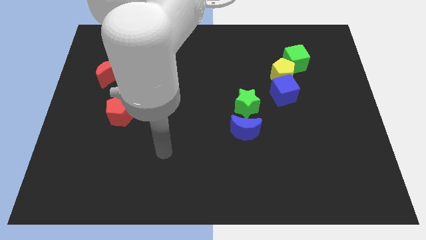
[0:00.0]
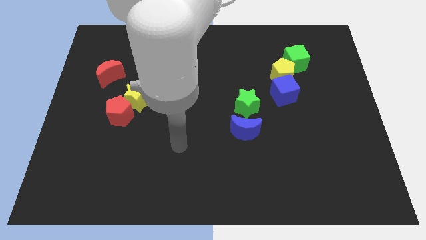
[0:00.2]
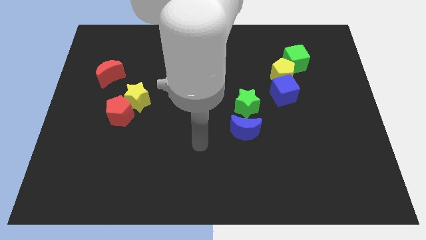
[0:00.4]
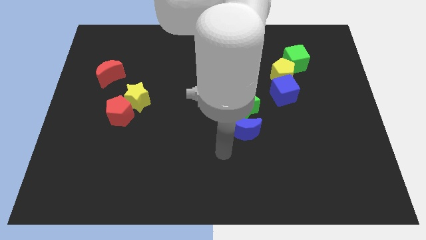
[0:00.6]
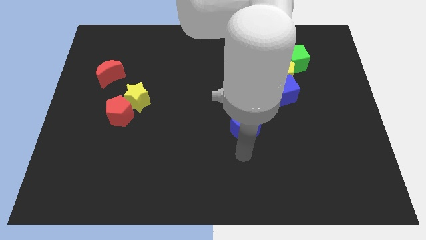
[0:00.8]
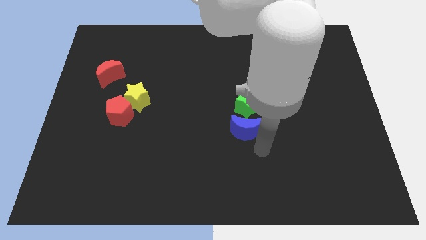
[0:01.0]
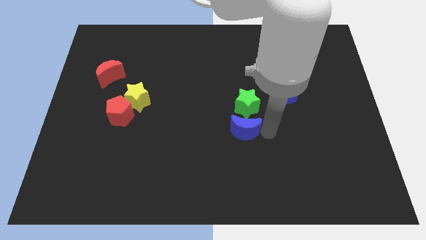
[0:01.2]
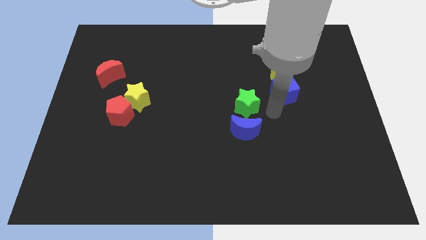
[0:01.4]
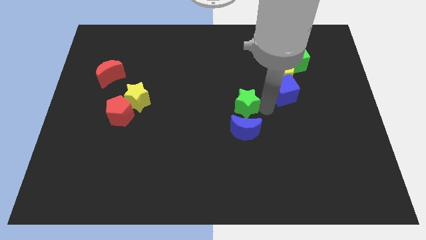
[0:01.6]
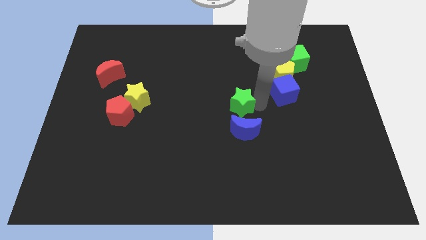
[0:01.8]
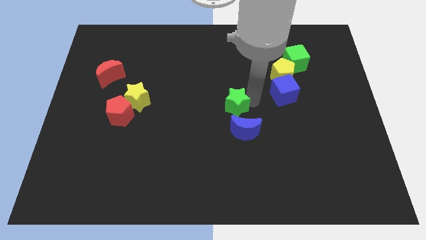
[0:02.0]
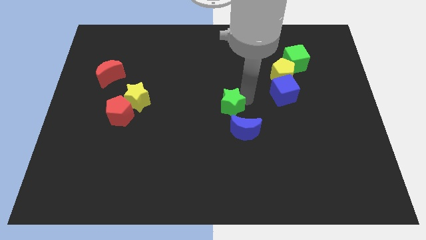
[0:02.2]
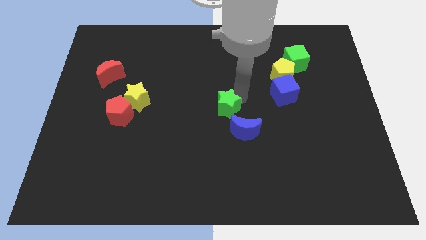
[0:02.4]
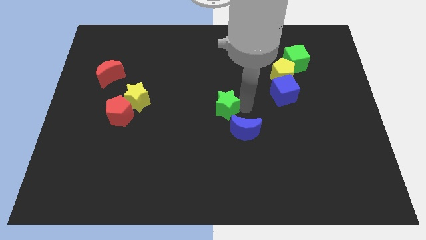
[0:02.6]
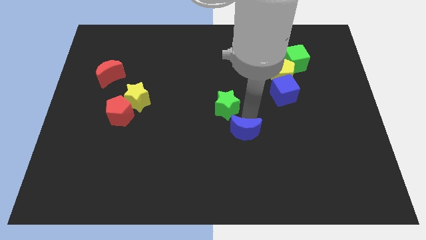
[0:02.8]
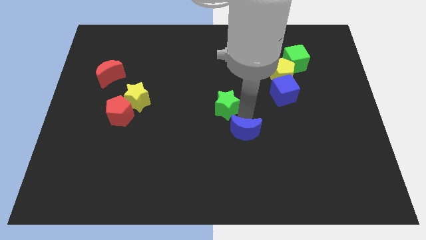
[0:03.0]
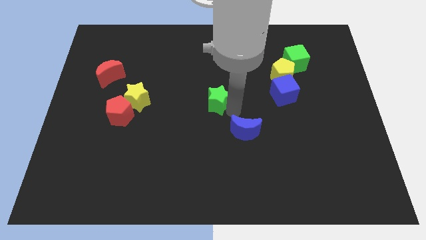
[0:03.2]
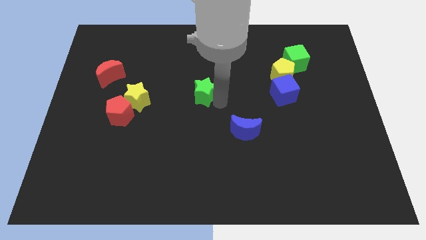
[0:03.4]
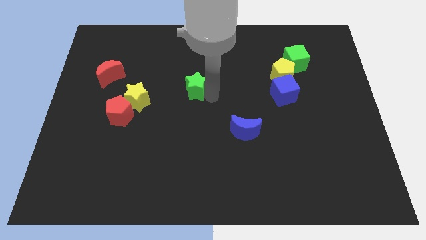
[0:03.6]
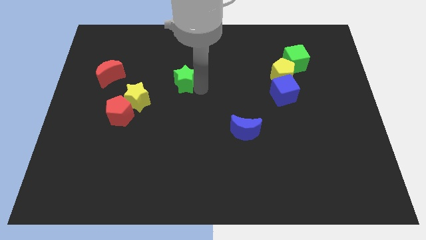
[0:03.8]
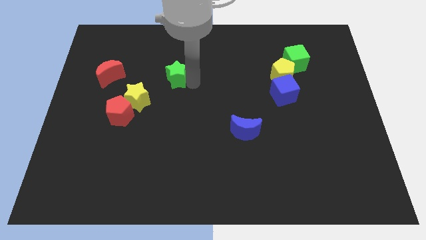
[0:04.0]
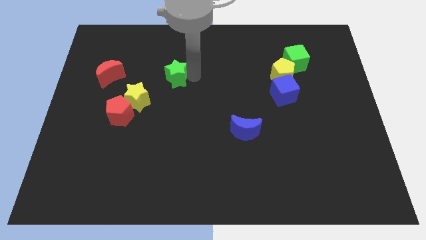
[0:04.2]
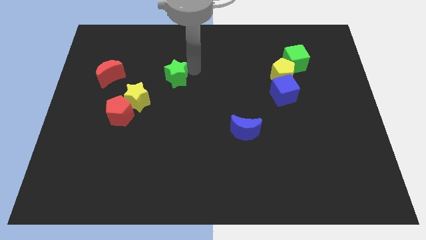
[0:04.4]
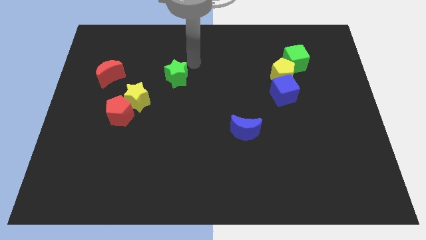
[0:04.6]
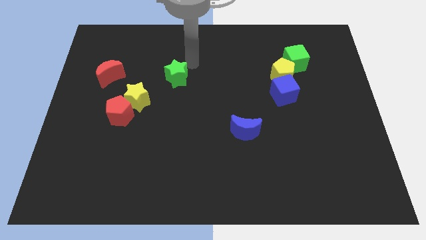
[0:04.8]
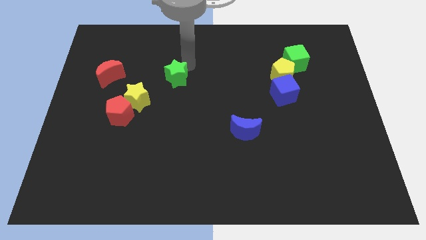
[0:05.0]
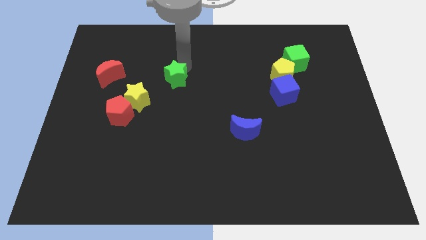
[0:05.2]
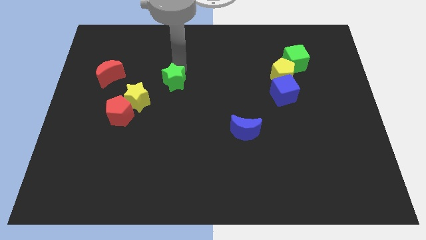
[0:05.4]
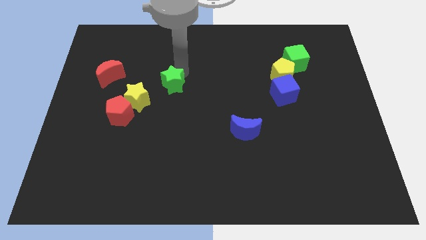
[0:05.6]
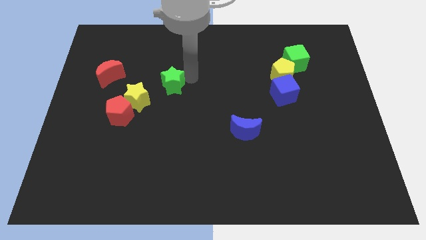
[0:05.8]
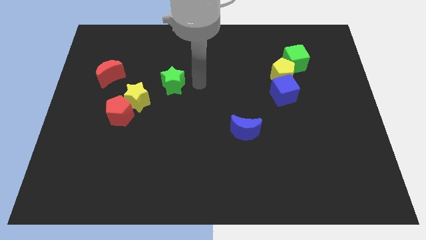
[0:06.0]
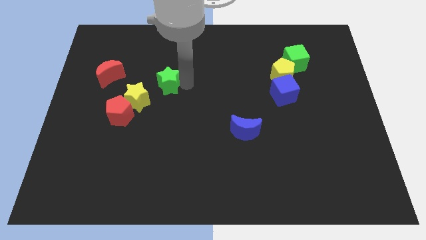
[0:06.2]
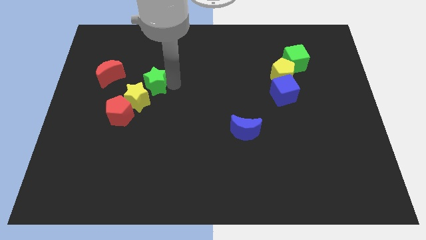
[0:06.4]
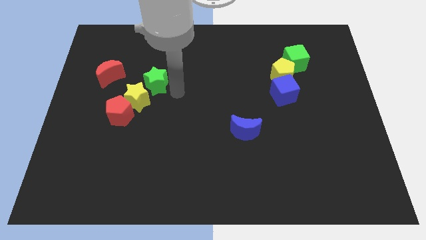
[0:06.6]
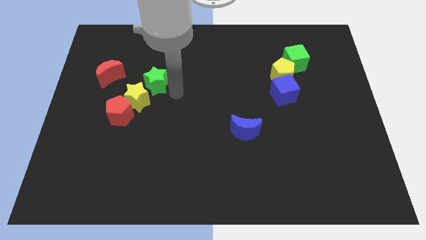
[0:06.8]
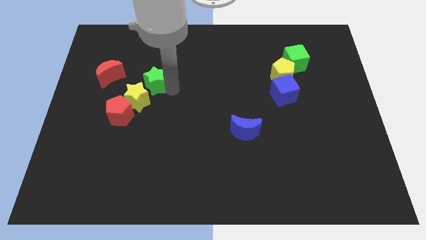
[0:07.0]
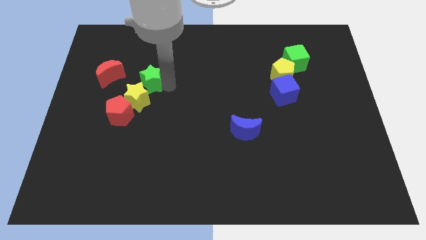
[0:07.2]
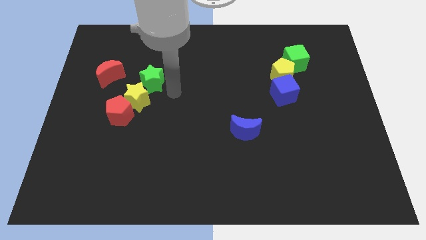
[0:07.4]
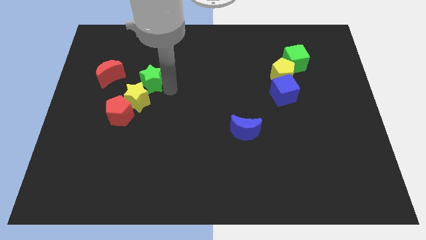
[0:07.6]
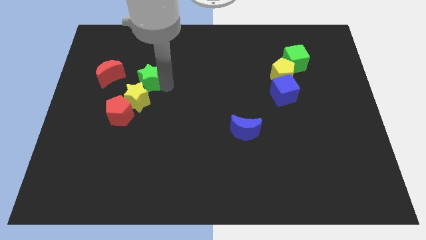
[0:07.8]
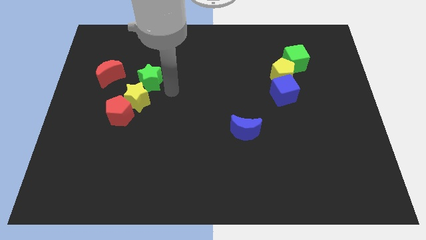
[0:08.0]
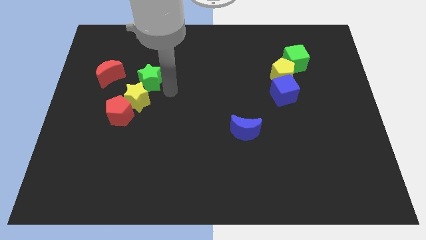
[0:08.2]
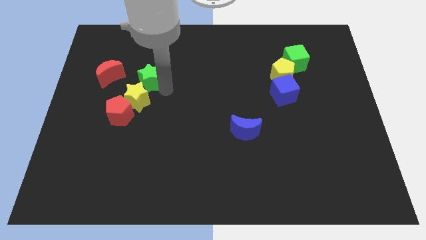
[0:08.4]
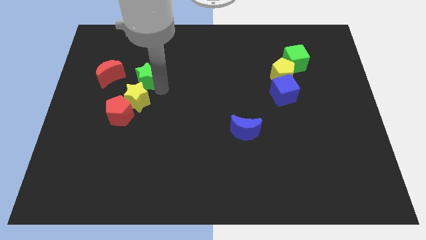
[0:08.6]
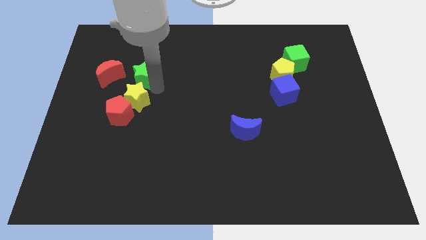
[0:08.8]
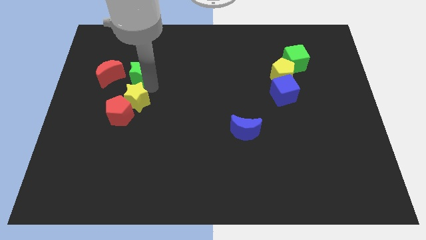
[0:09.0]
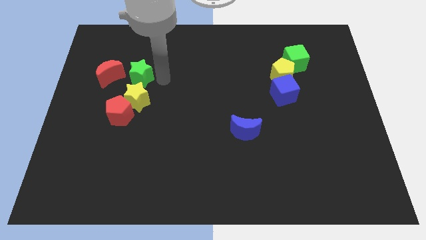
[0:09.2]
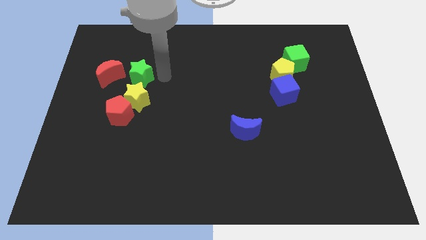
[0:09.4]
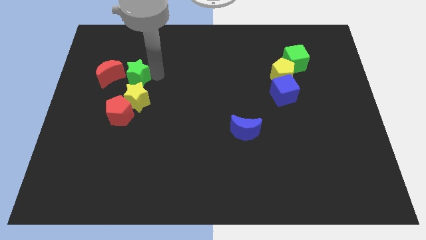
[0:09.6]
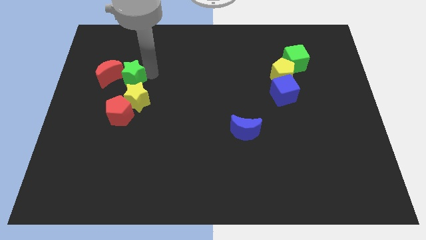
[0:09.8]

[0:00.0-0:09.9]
move the green star towards the red moon

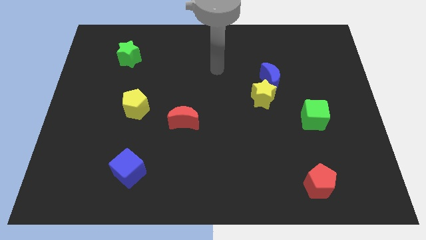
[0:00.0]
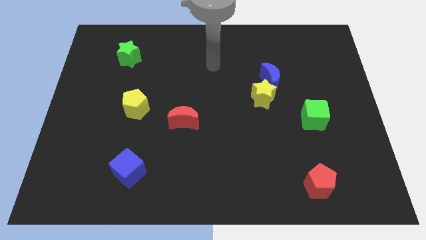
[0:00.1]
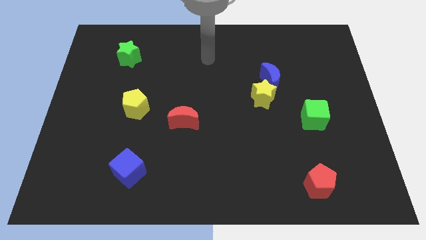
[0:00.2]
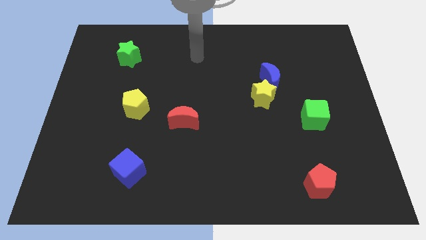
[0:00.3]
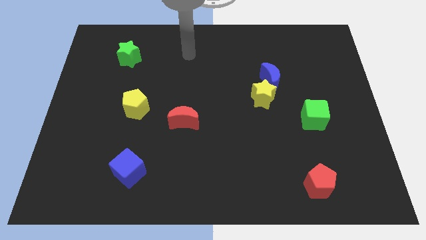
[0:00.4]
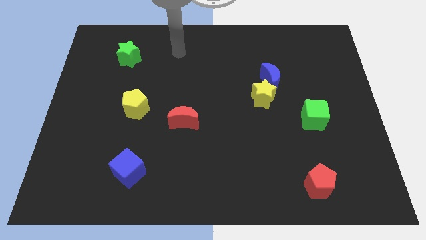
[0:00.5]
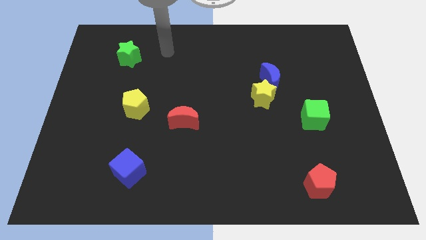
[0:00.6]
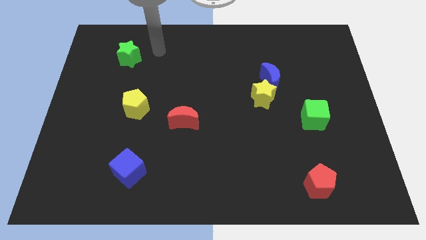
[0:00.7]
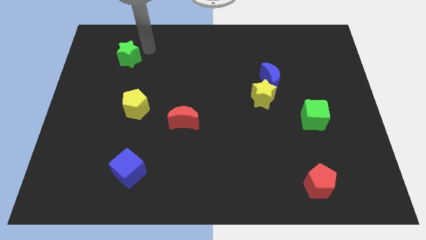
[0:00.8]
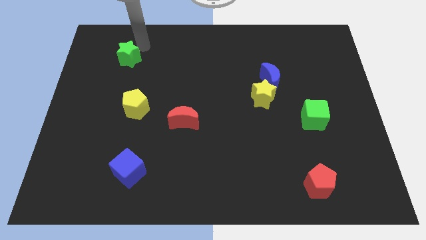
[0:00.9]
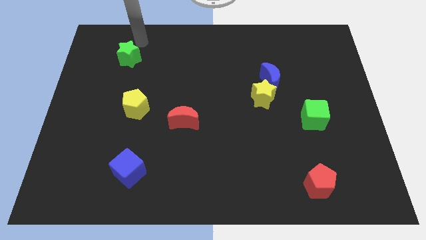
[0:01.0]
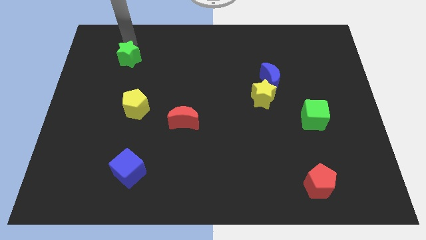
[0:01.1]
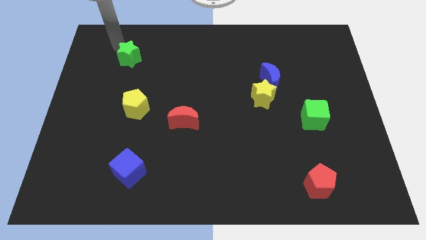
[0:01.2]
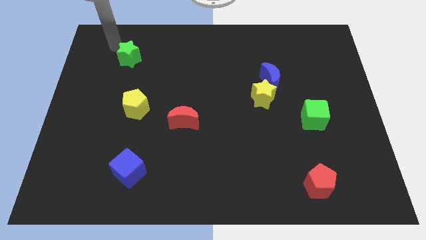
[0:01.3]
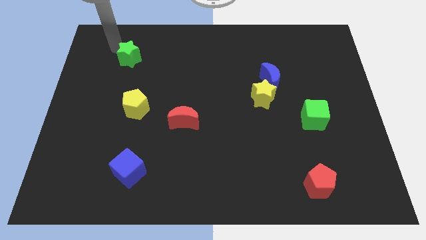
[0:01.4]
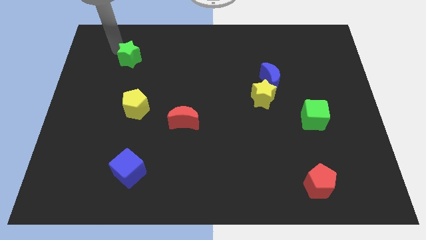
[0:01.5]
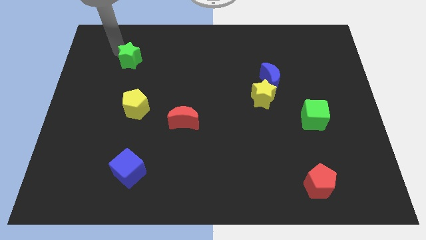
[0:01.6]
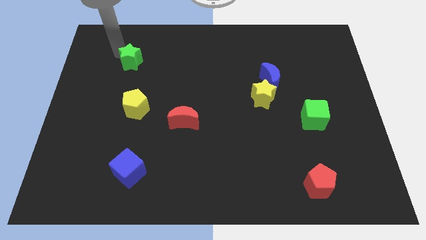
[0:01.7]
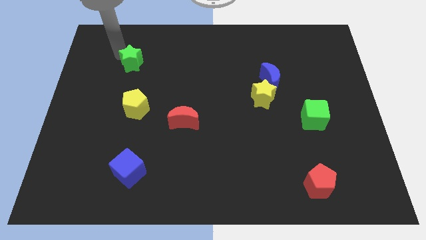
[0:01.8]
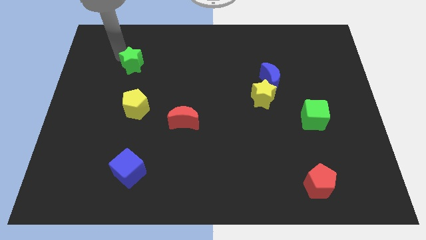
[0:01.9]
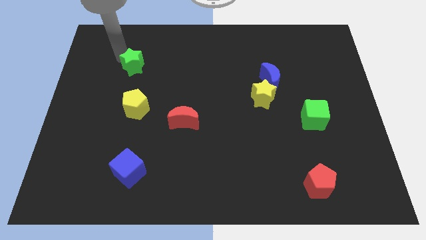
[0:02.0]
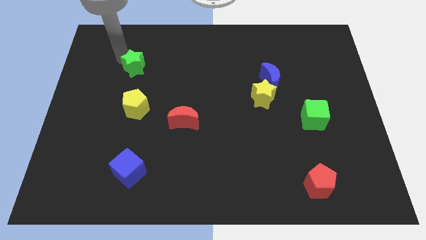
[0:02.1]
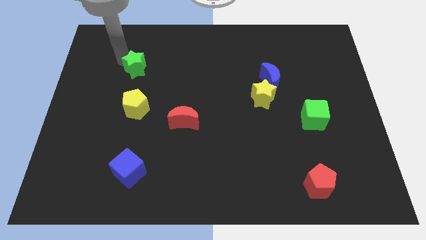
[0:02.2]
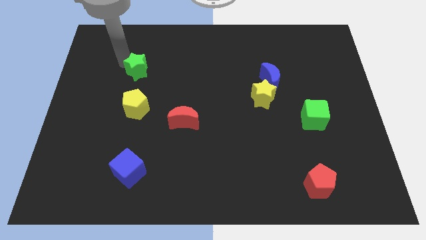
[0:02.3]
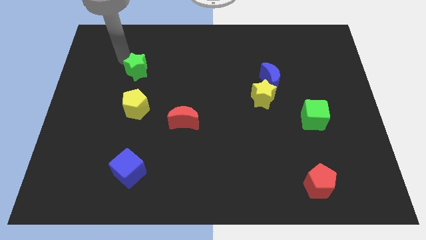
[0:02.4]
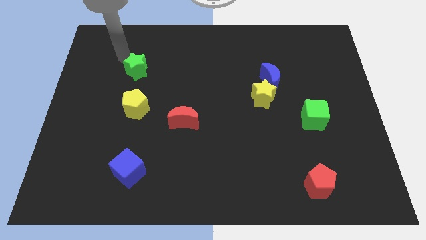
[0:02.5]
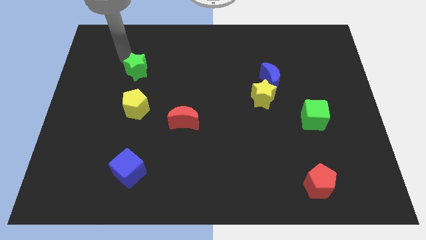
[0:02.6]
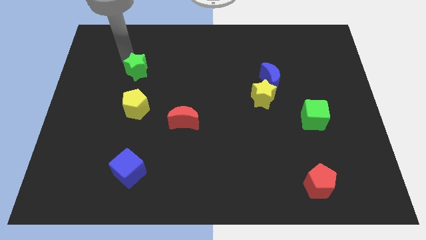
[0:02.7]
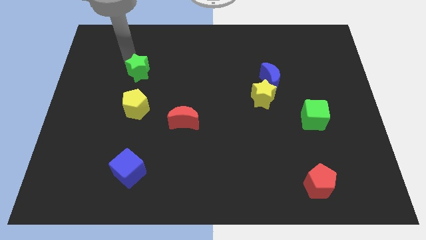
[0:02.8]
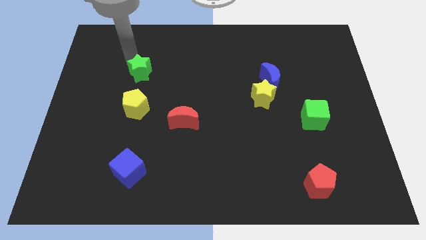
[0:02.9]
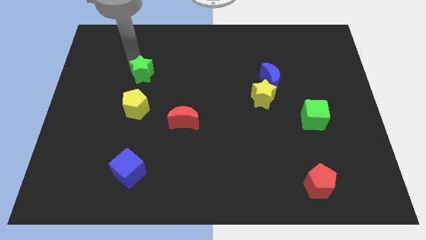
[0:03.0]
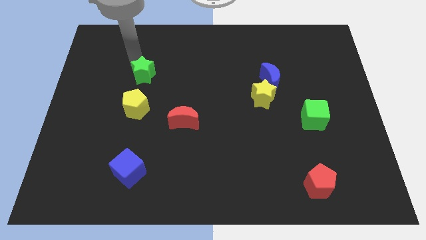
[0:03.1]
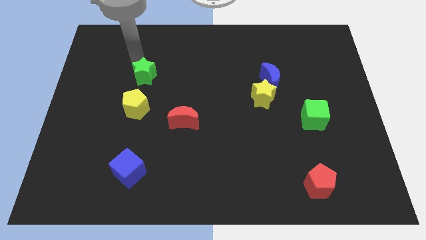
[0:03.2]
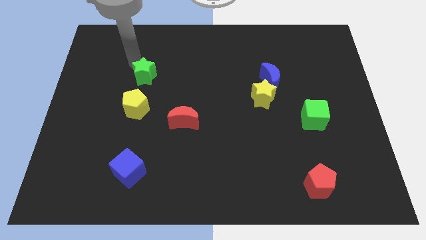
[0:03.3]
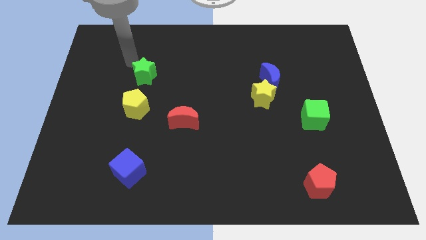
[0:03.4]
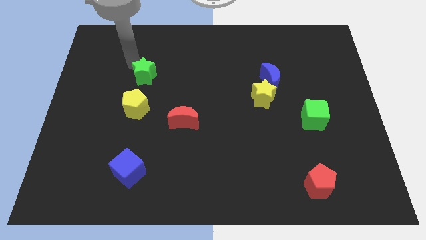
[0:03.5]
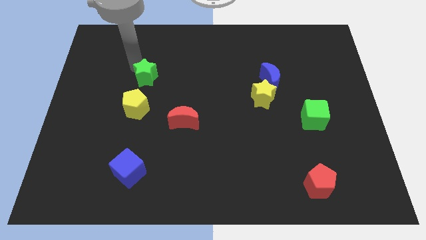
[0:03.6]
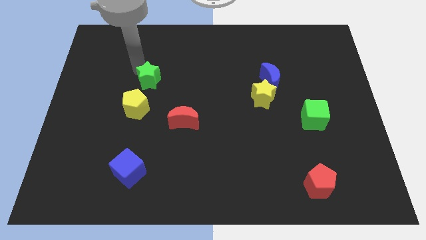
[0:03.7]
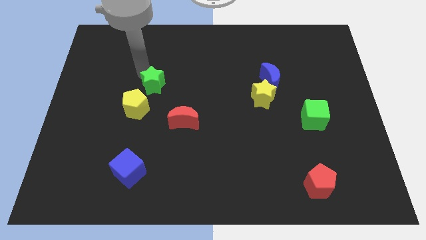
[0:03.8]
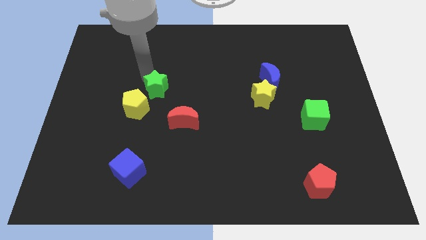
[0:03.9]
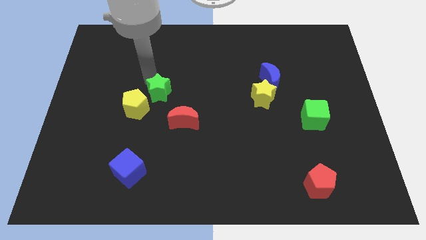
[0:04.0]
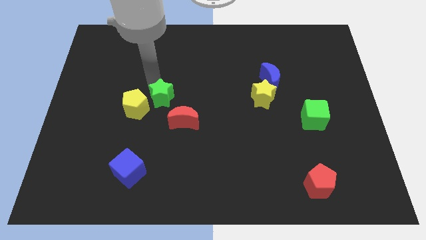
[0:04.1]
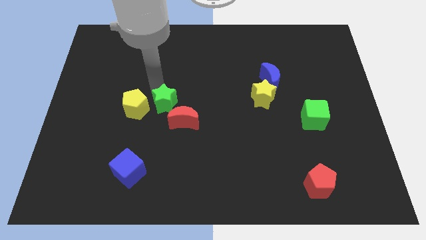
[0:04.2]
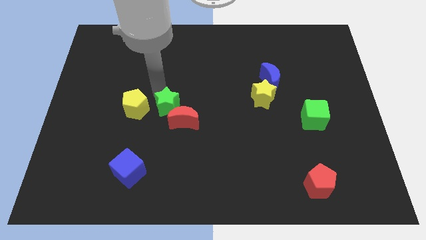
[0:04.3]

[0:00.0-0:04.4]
put the green star to the red moon
